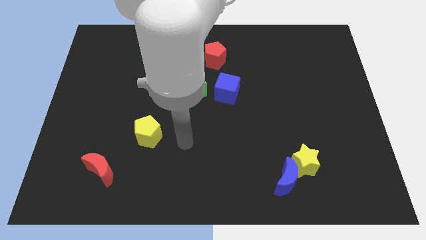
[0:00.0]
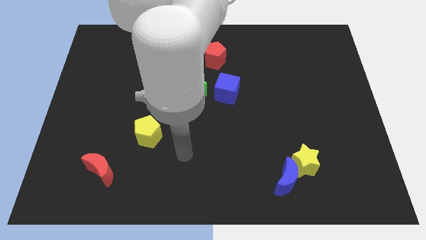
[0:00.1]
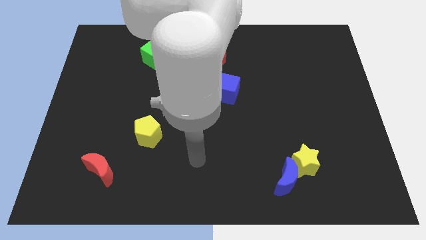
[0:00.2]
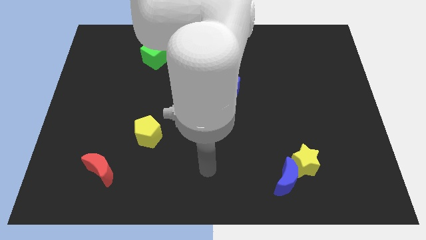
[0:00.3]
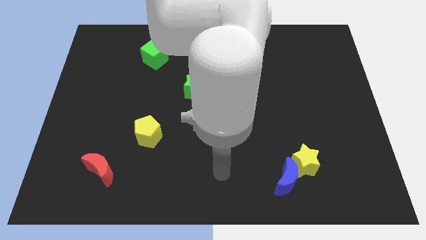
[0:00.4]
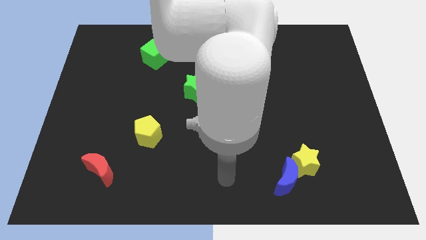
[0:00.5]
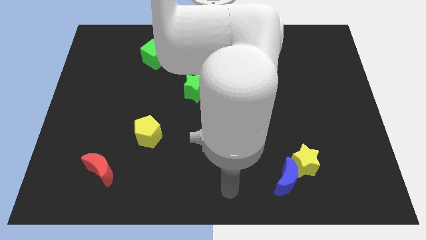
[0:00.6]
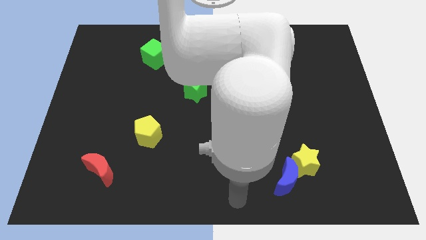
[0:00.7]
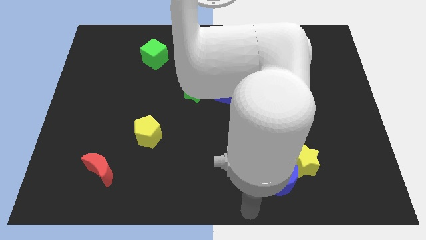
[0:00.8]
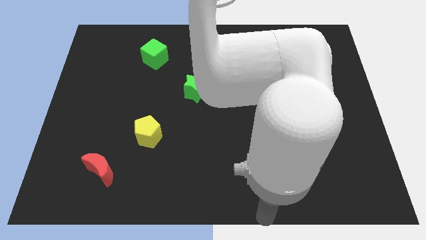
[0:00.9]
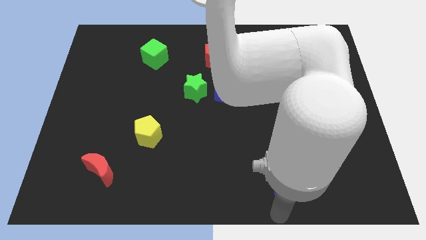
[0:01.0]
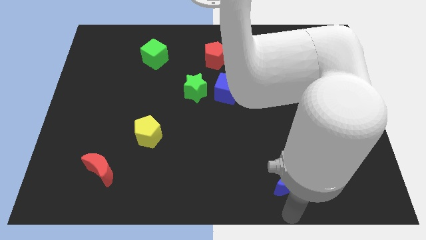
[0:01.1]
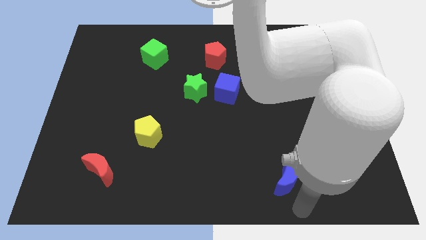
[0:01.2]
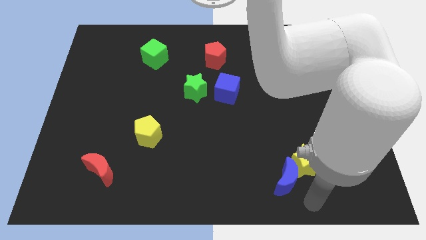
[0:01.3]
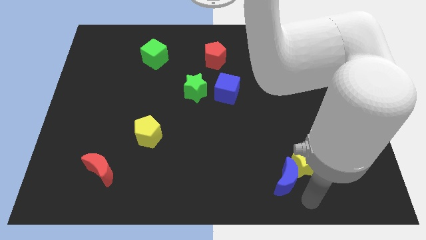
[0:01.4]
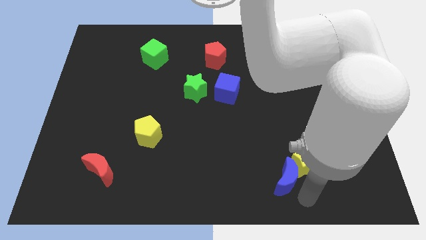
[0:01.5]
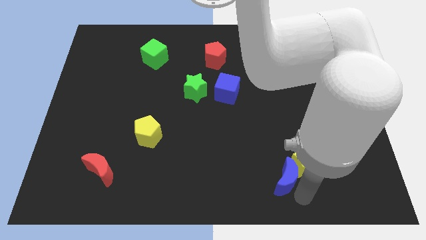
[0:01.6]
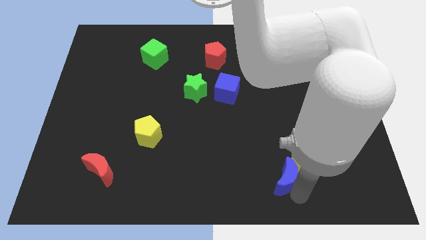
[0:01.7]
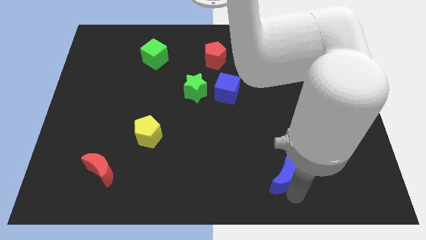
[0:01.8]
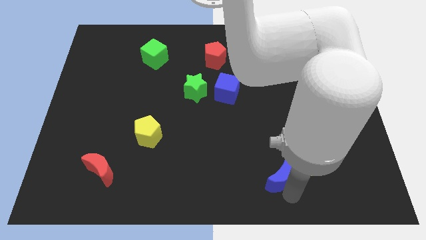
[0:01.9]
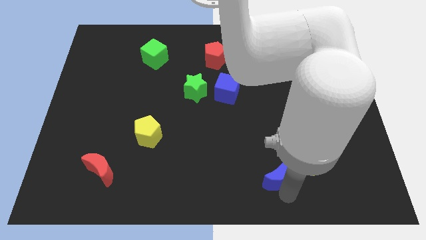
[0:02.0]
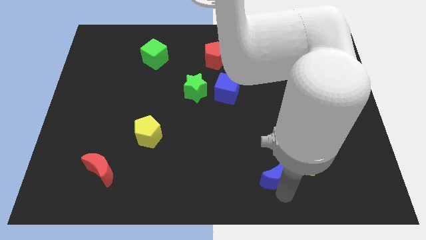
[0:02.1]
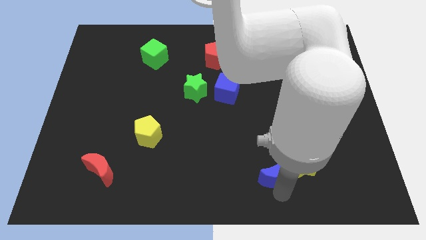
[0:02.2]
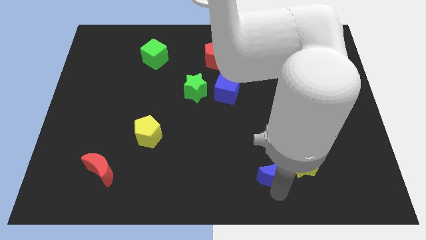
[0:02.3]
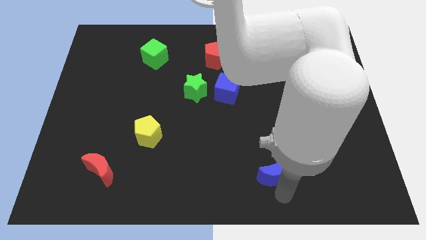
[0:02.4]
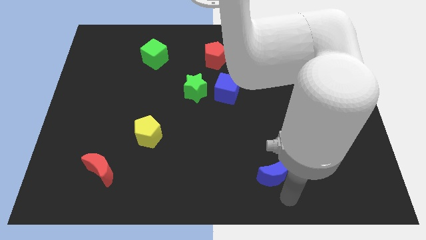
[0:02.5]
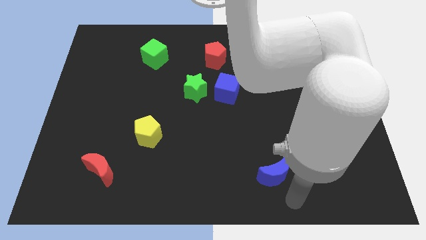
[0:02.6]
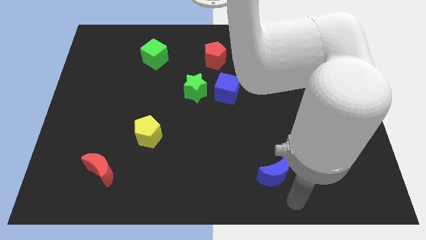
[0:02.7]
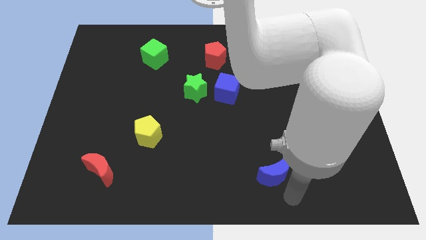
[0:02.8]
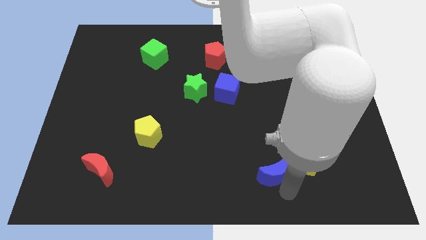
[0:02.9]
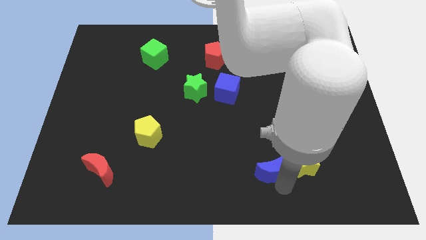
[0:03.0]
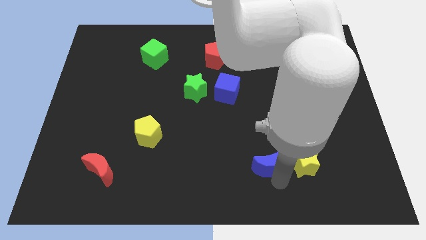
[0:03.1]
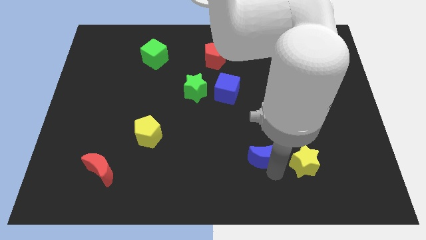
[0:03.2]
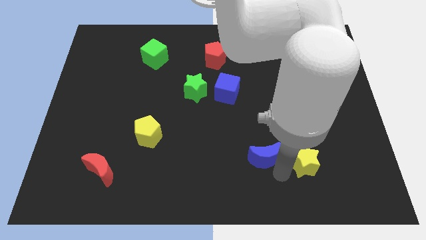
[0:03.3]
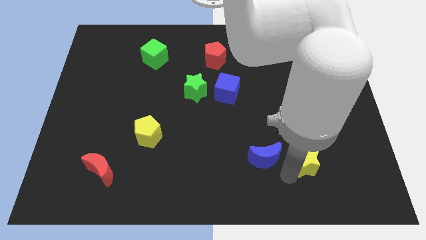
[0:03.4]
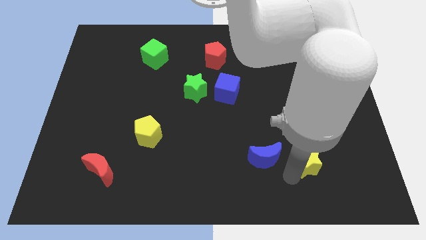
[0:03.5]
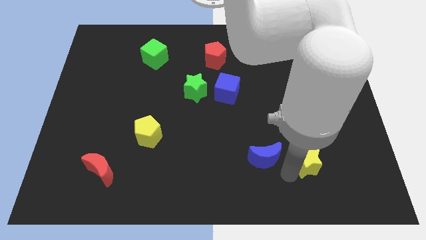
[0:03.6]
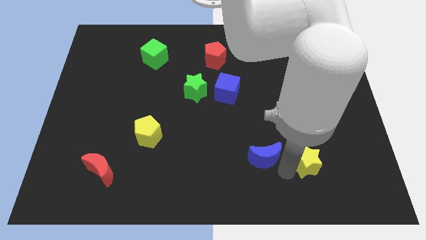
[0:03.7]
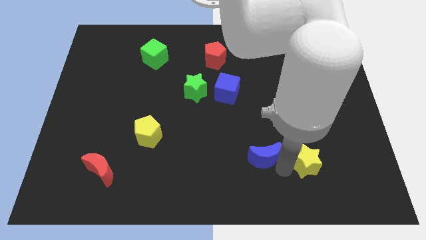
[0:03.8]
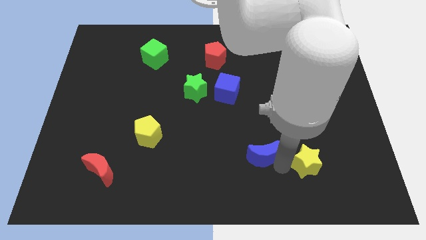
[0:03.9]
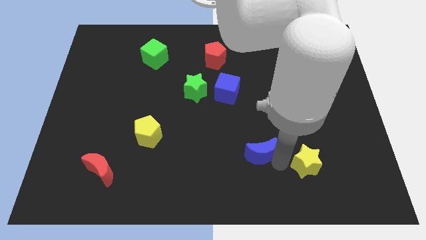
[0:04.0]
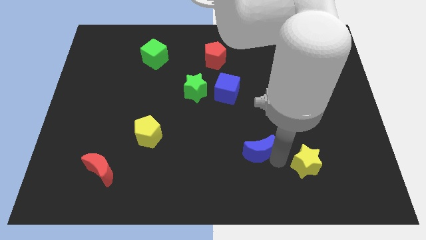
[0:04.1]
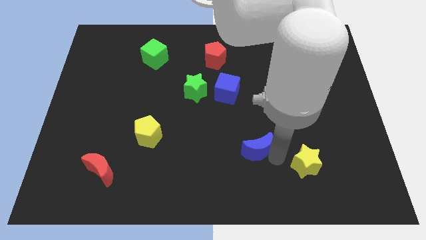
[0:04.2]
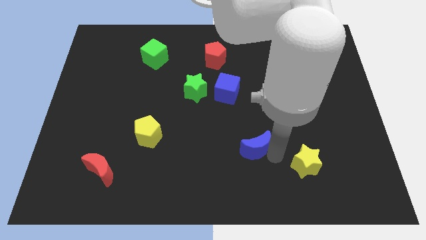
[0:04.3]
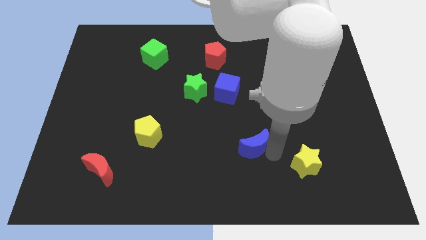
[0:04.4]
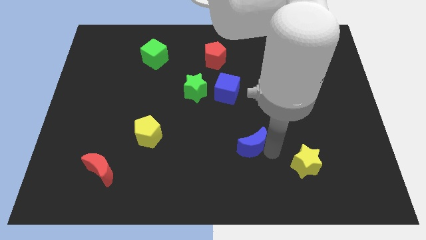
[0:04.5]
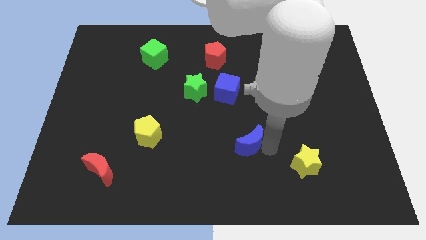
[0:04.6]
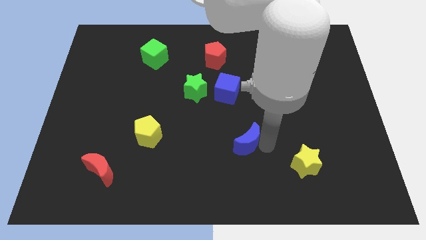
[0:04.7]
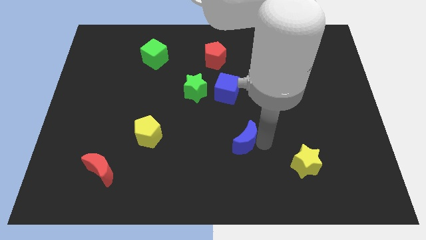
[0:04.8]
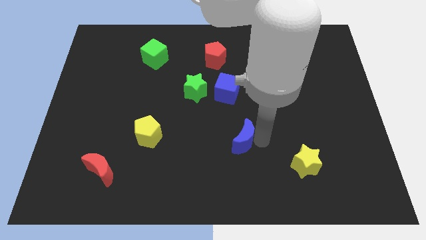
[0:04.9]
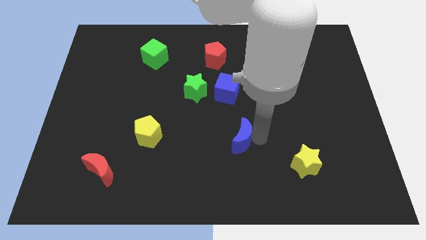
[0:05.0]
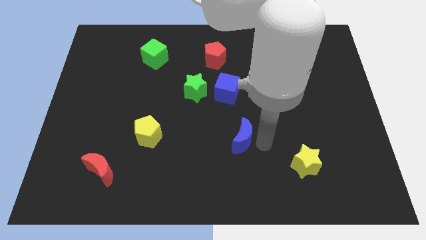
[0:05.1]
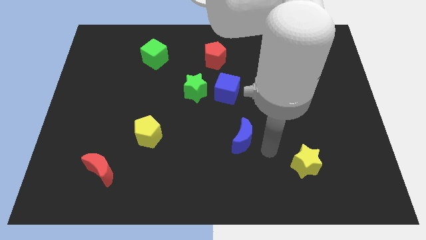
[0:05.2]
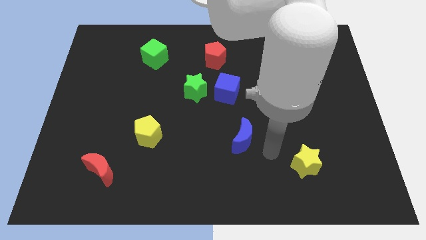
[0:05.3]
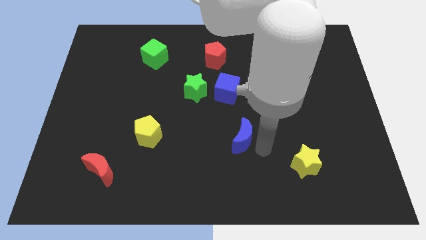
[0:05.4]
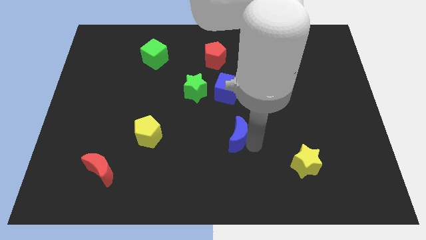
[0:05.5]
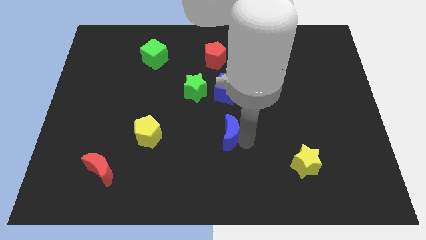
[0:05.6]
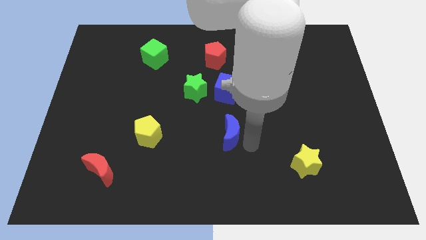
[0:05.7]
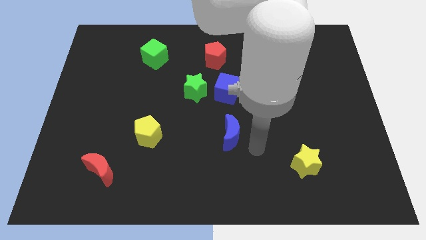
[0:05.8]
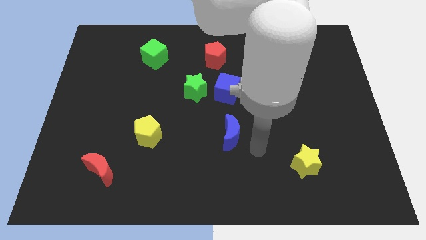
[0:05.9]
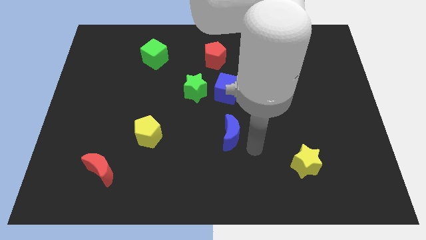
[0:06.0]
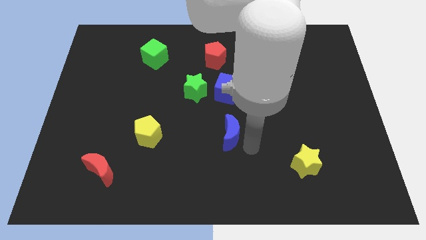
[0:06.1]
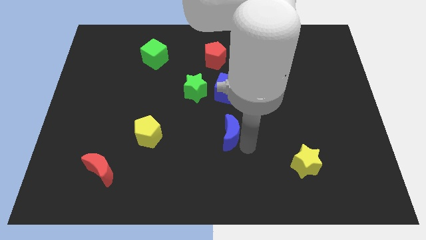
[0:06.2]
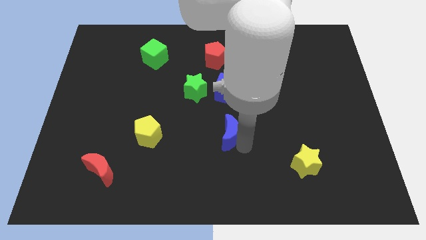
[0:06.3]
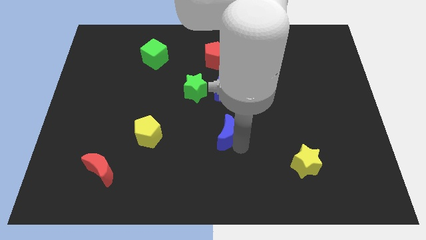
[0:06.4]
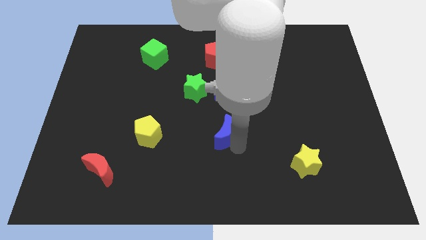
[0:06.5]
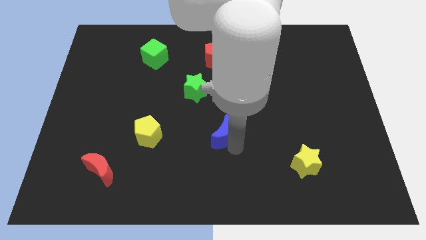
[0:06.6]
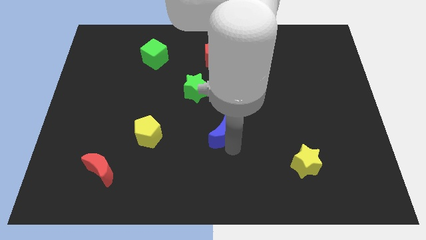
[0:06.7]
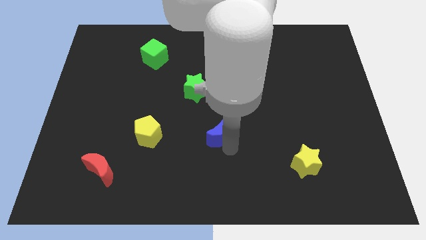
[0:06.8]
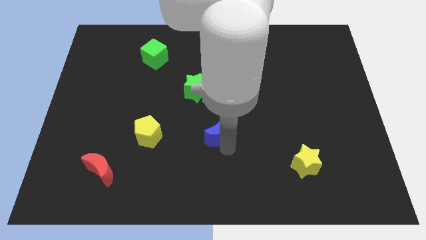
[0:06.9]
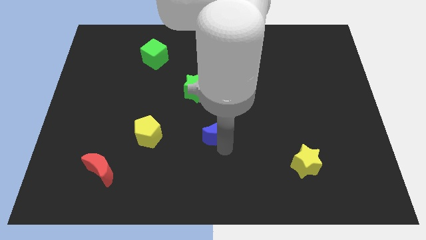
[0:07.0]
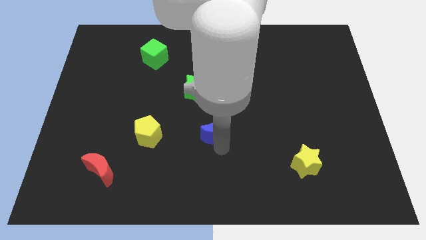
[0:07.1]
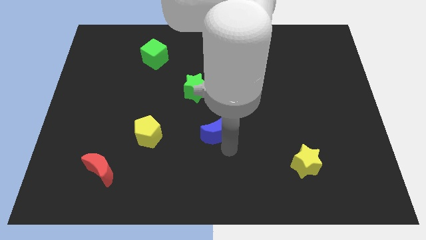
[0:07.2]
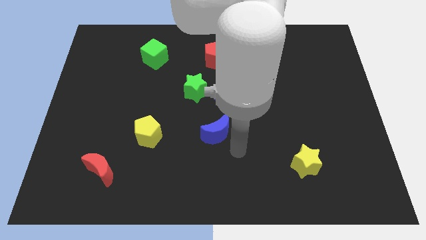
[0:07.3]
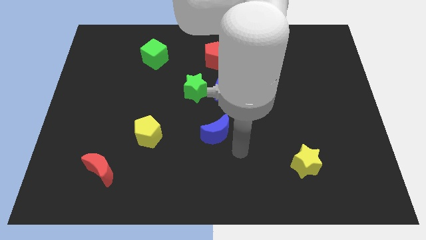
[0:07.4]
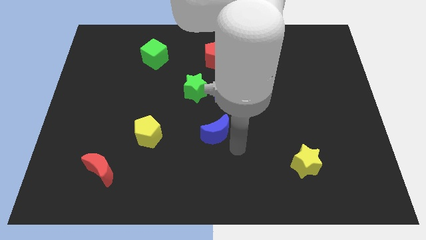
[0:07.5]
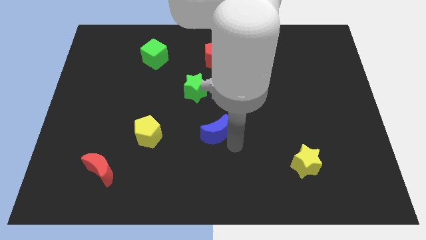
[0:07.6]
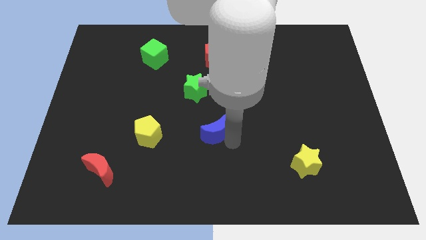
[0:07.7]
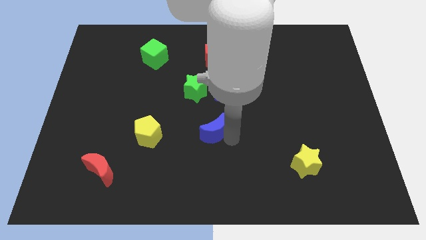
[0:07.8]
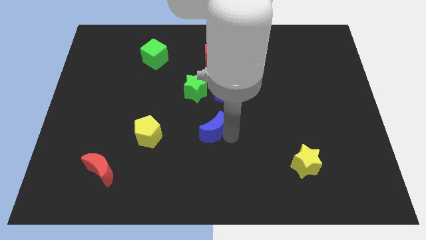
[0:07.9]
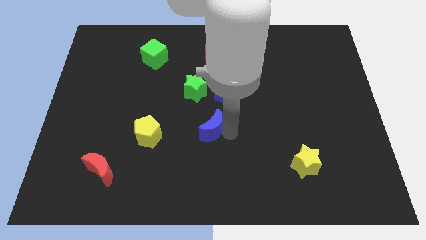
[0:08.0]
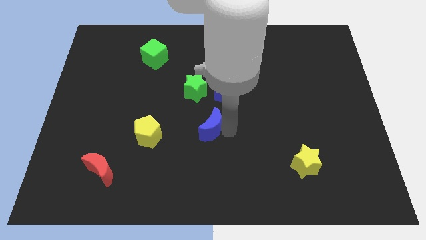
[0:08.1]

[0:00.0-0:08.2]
move the blue moon diagonally up and left
